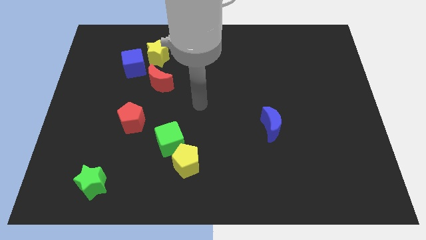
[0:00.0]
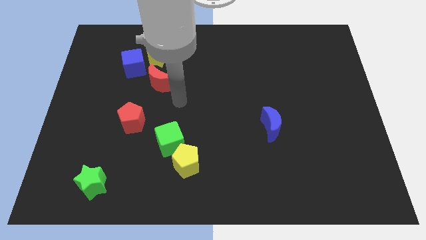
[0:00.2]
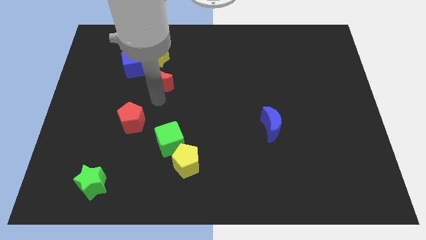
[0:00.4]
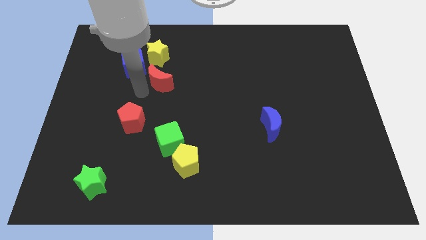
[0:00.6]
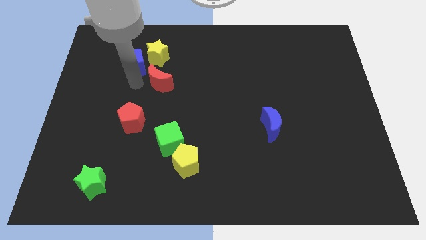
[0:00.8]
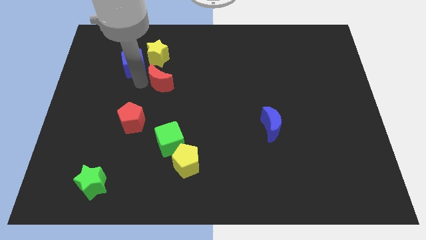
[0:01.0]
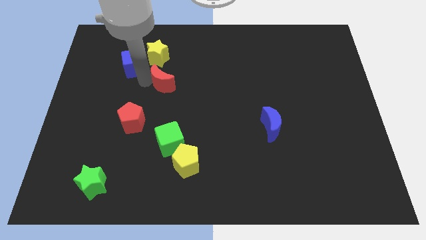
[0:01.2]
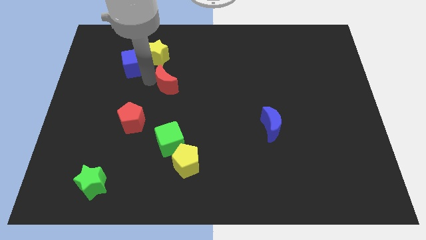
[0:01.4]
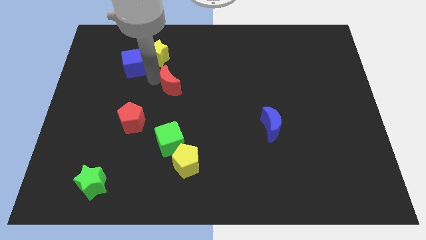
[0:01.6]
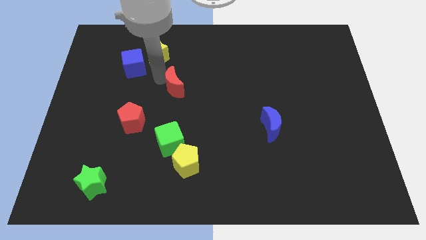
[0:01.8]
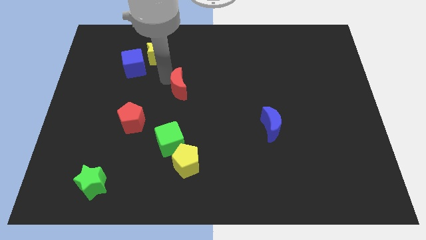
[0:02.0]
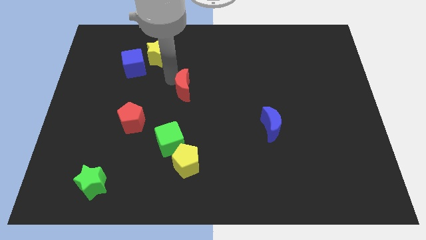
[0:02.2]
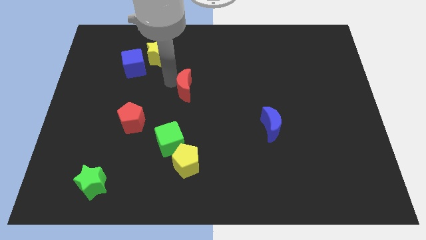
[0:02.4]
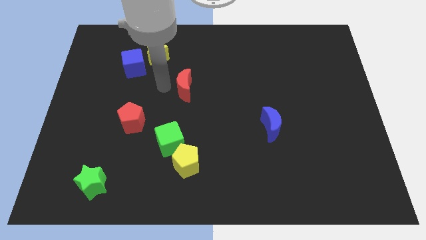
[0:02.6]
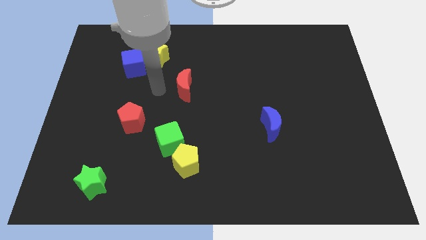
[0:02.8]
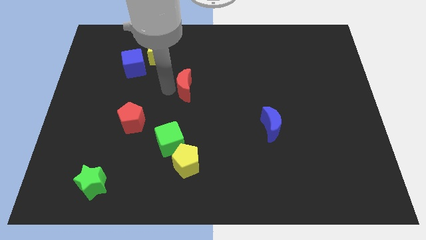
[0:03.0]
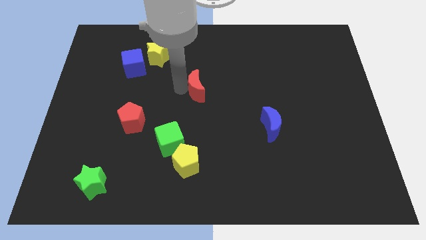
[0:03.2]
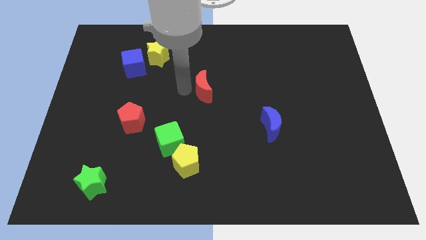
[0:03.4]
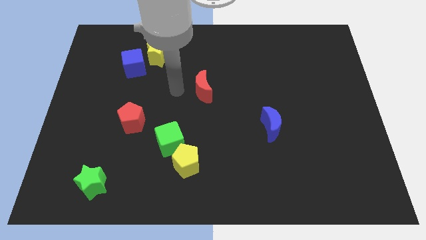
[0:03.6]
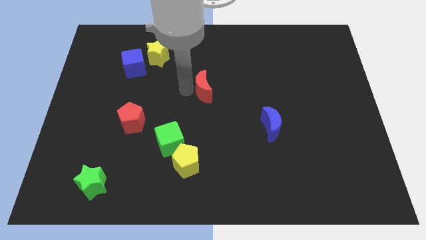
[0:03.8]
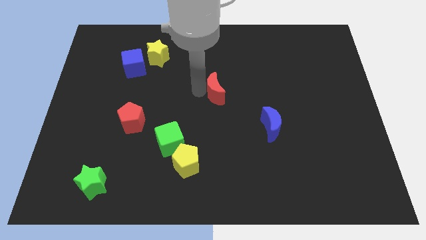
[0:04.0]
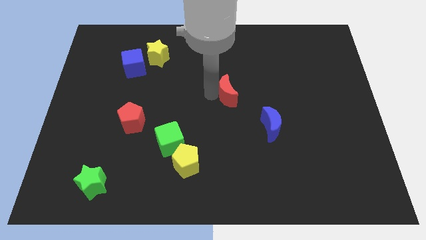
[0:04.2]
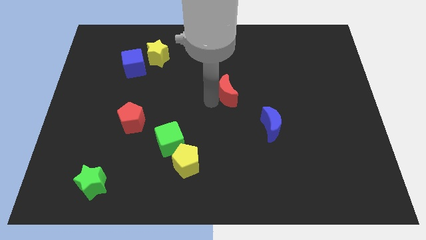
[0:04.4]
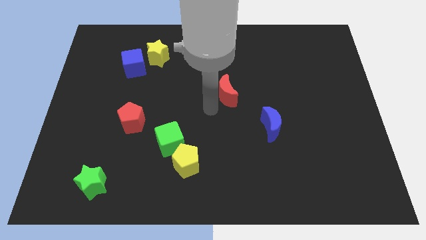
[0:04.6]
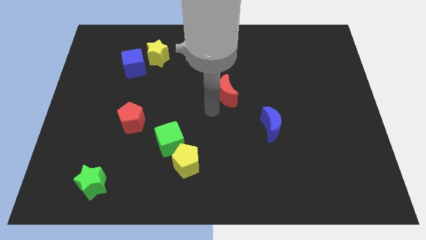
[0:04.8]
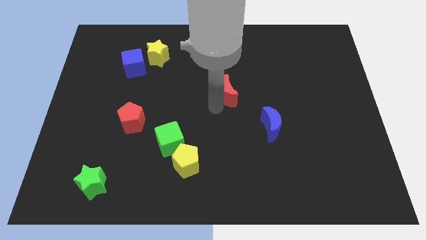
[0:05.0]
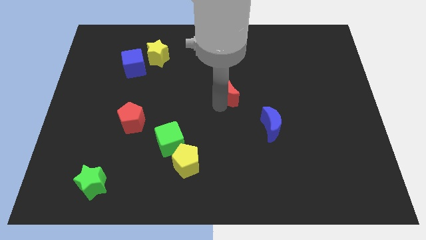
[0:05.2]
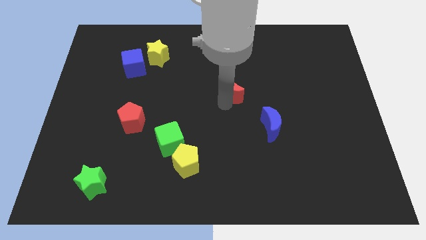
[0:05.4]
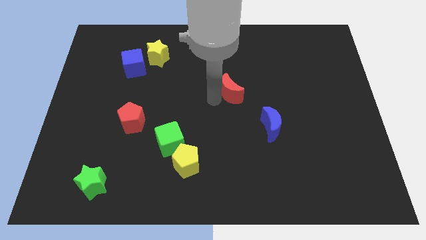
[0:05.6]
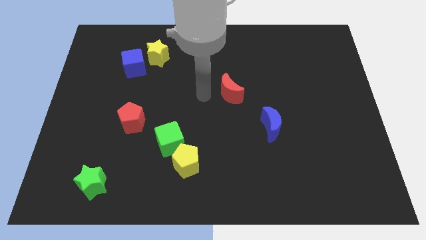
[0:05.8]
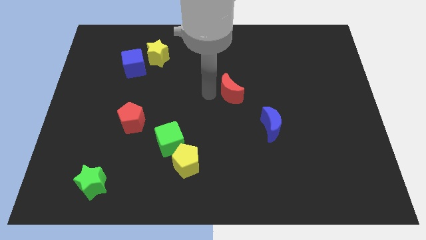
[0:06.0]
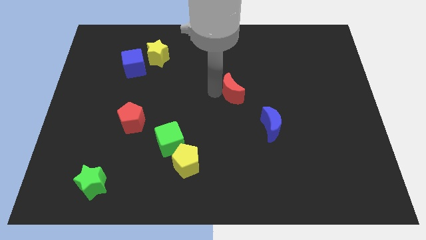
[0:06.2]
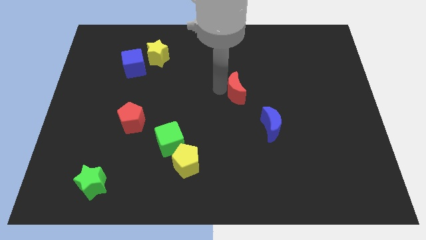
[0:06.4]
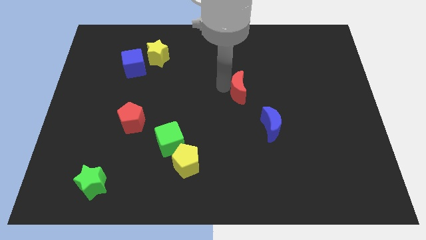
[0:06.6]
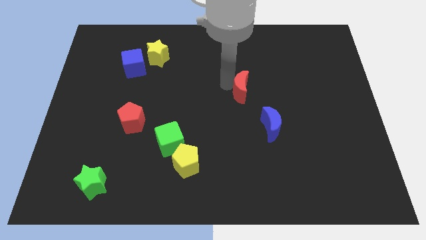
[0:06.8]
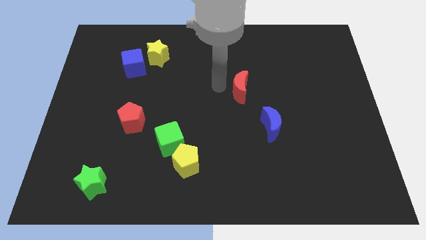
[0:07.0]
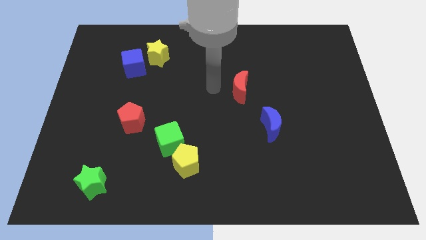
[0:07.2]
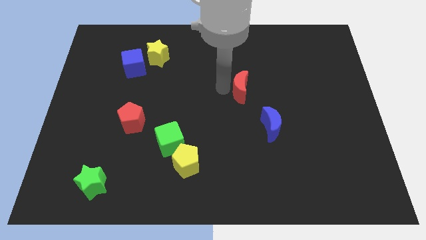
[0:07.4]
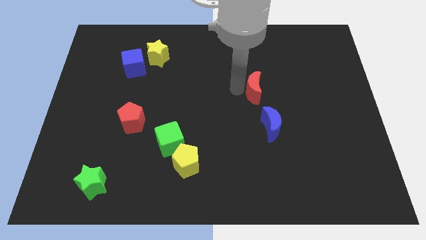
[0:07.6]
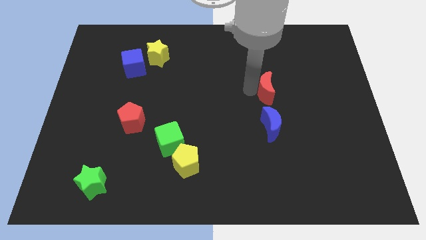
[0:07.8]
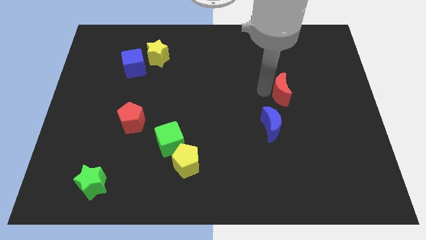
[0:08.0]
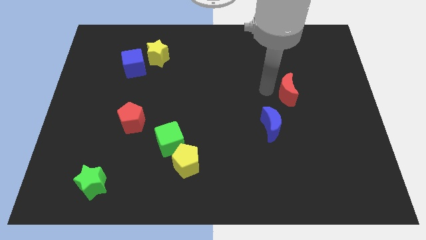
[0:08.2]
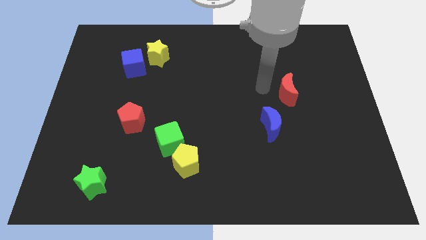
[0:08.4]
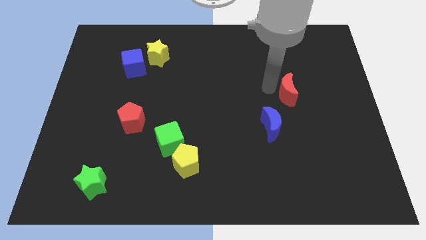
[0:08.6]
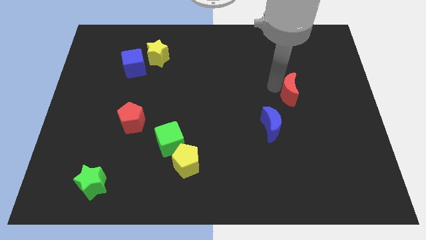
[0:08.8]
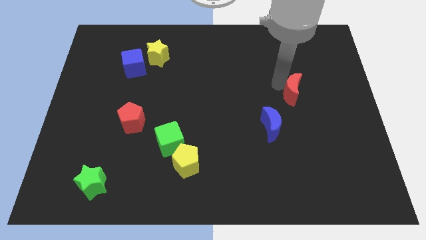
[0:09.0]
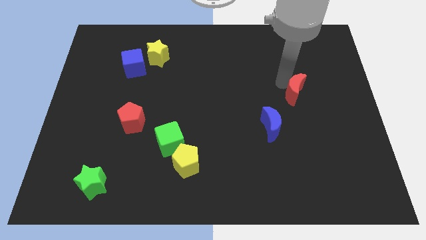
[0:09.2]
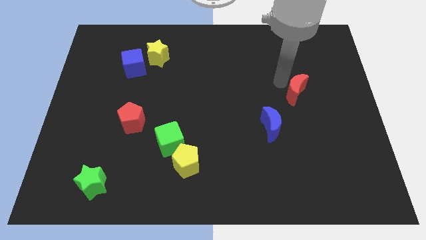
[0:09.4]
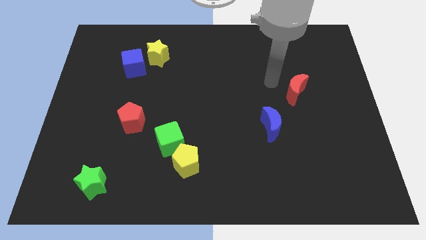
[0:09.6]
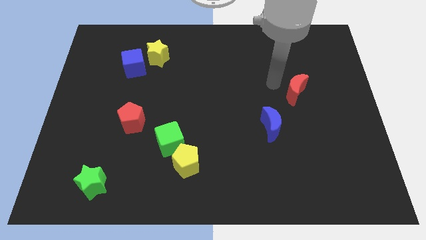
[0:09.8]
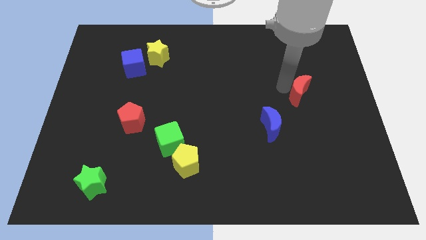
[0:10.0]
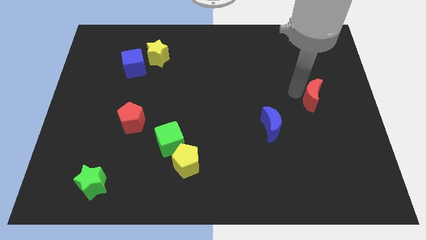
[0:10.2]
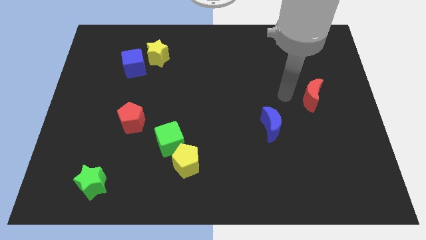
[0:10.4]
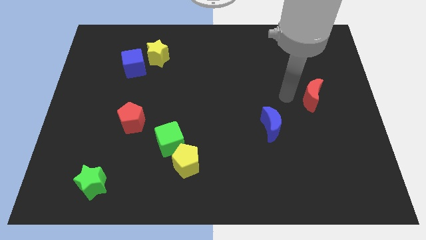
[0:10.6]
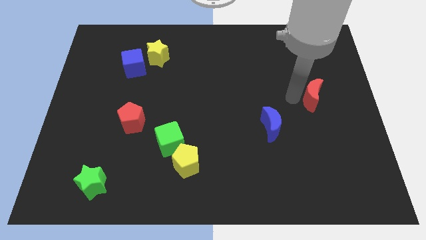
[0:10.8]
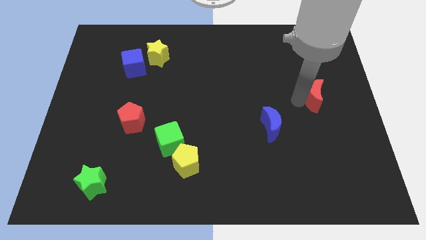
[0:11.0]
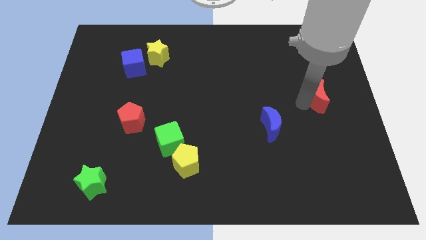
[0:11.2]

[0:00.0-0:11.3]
slide the red moon to the right side
